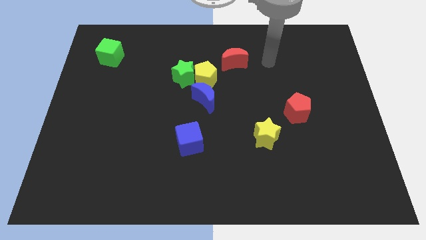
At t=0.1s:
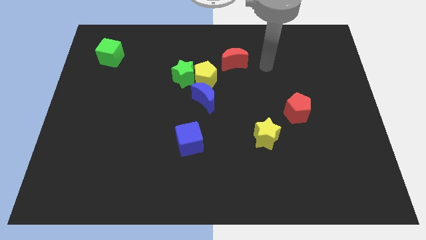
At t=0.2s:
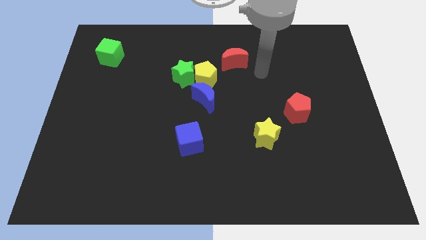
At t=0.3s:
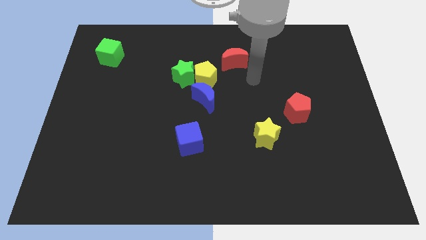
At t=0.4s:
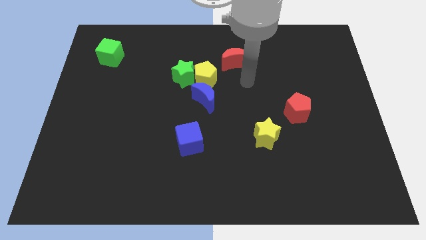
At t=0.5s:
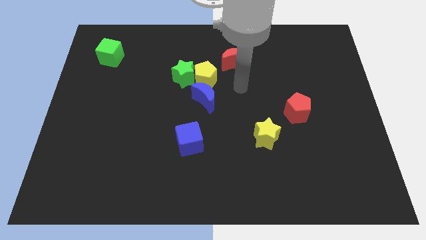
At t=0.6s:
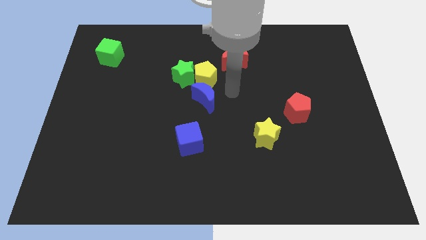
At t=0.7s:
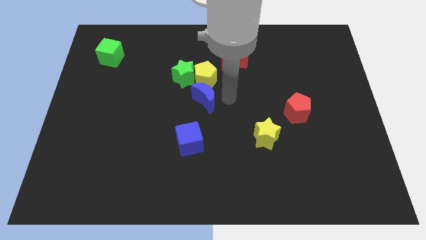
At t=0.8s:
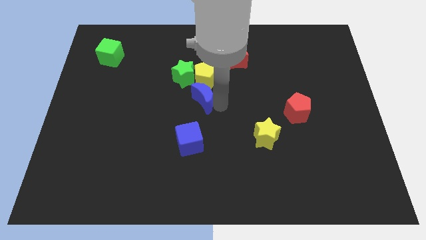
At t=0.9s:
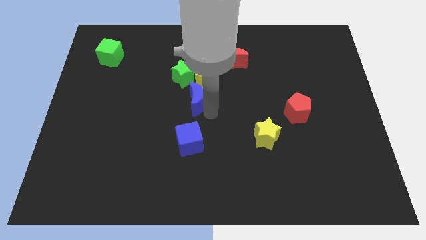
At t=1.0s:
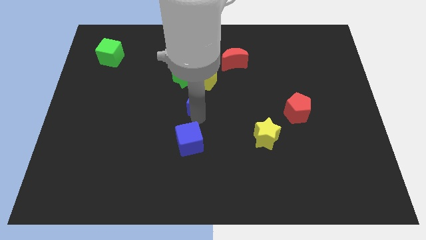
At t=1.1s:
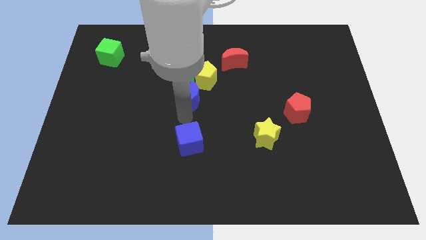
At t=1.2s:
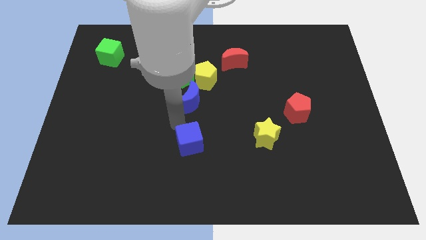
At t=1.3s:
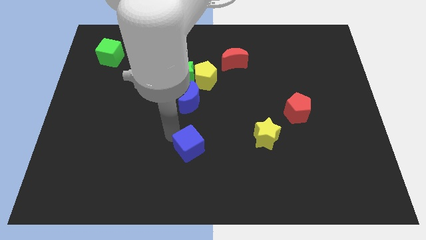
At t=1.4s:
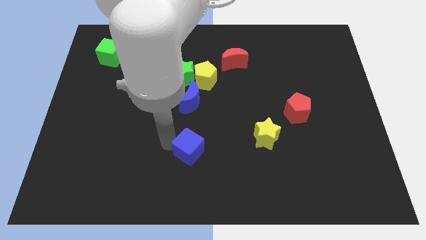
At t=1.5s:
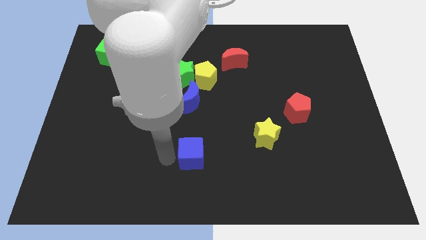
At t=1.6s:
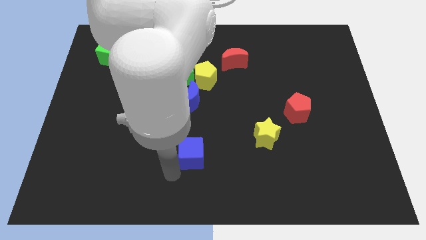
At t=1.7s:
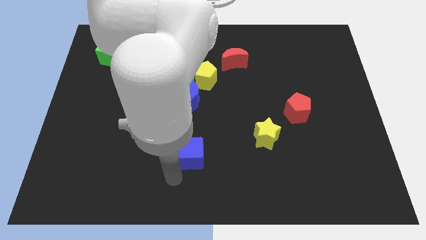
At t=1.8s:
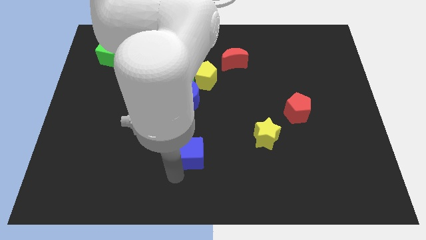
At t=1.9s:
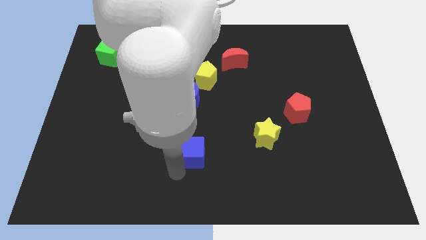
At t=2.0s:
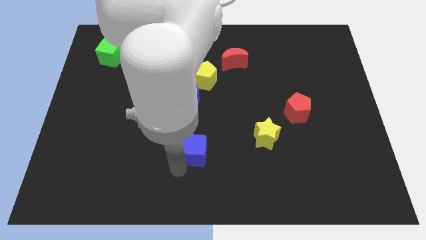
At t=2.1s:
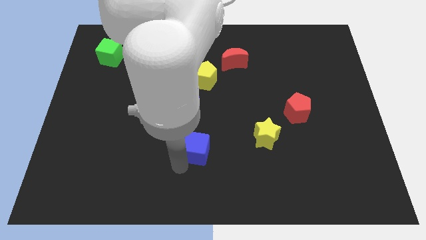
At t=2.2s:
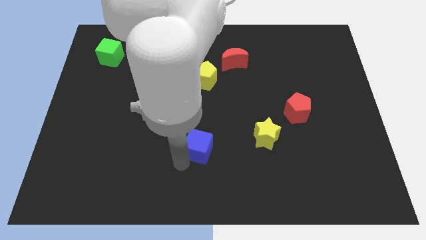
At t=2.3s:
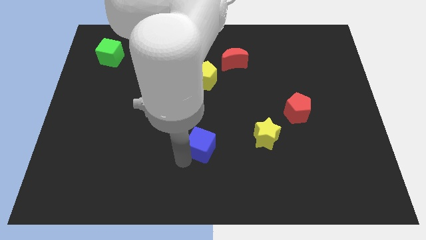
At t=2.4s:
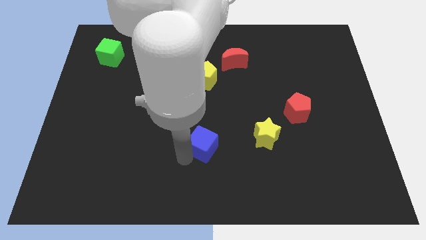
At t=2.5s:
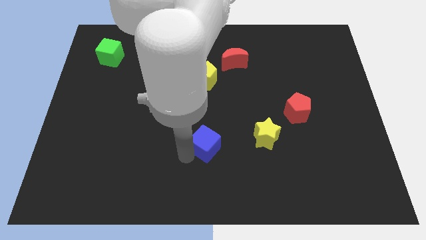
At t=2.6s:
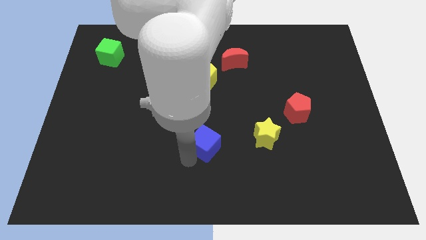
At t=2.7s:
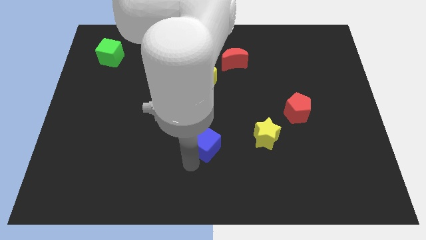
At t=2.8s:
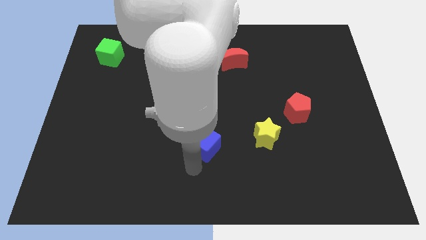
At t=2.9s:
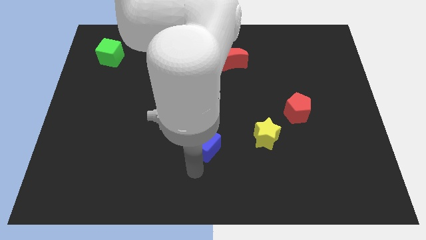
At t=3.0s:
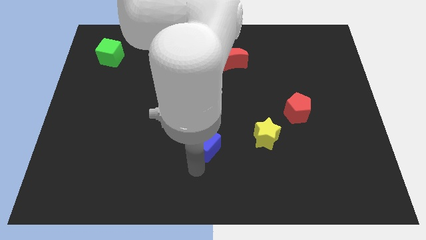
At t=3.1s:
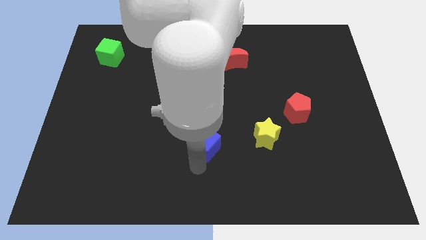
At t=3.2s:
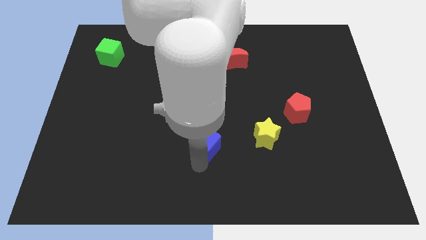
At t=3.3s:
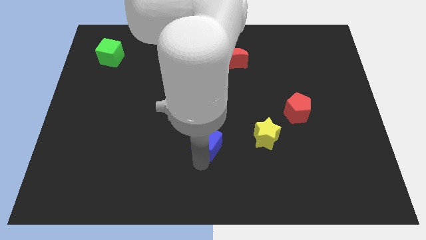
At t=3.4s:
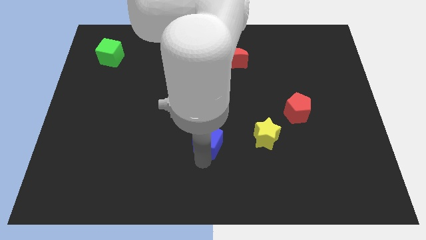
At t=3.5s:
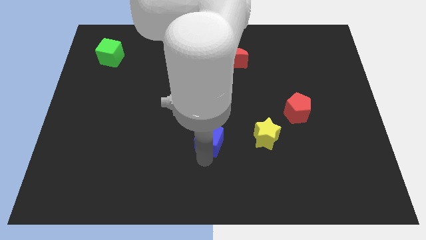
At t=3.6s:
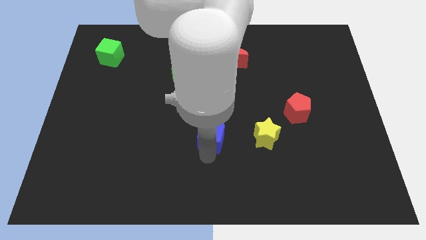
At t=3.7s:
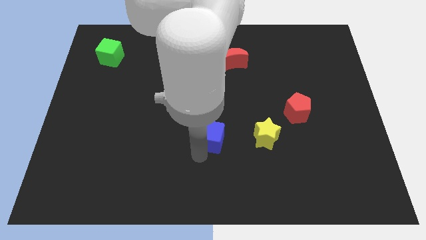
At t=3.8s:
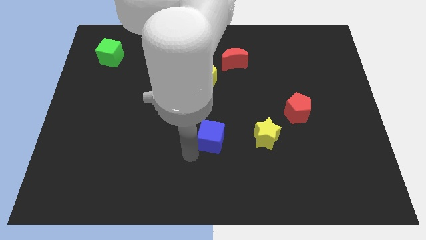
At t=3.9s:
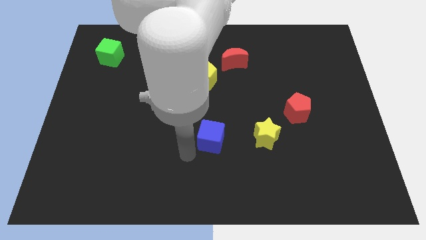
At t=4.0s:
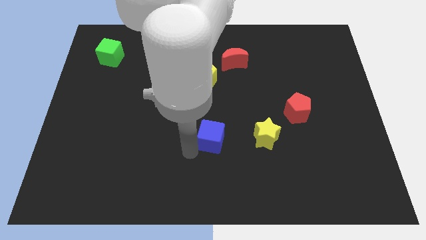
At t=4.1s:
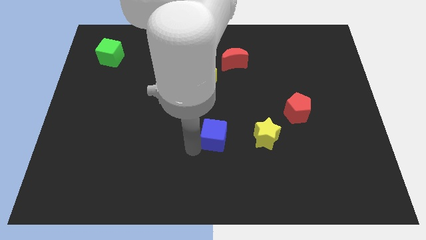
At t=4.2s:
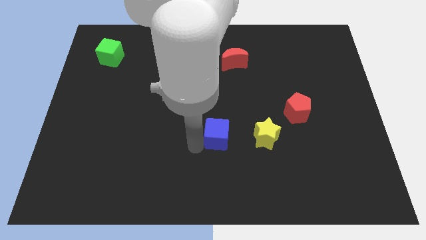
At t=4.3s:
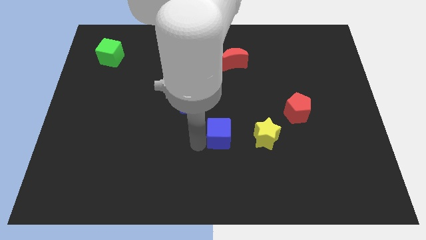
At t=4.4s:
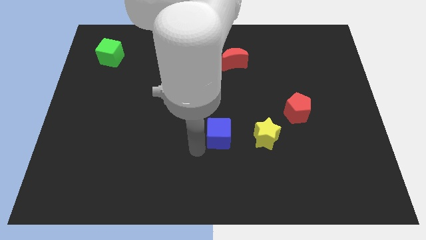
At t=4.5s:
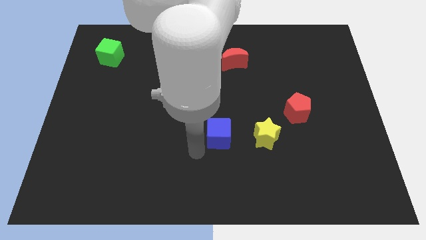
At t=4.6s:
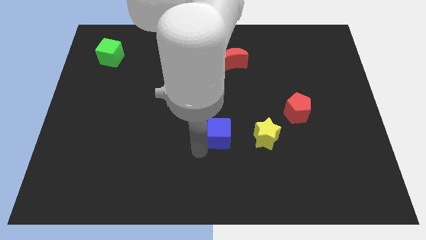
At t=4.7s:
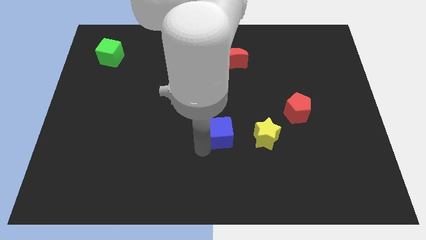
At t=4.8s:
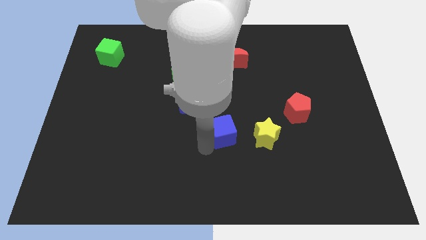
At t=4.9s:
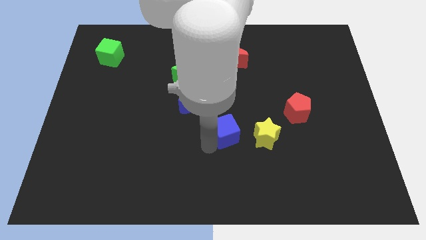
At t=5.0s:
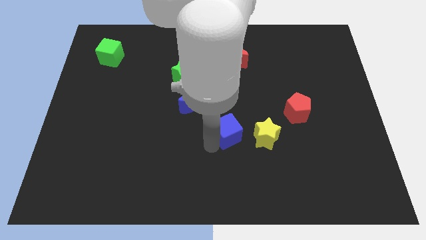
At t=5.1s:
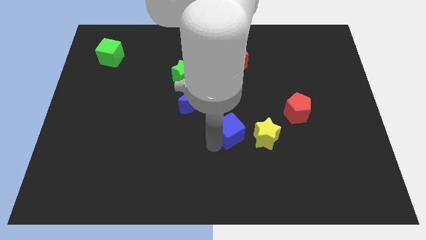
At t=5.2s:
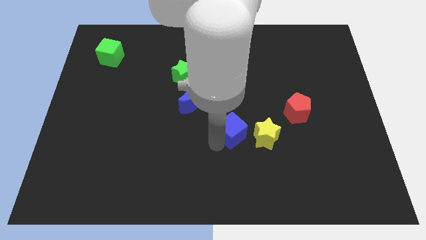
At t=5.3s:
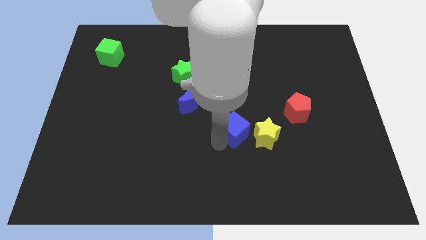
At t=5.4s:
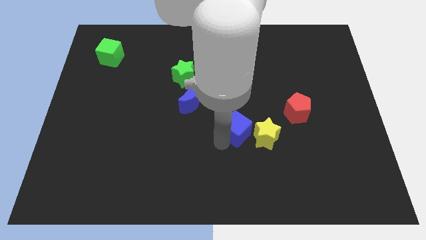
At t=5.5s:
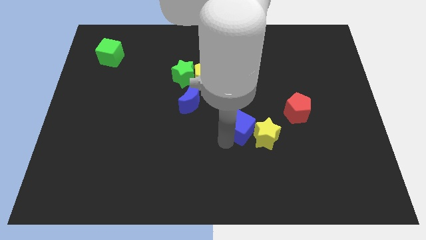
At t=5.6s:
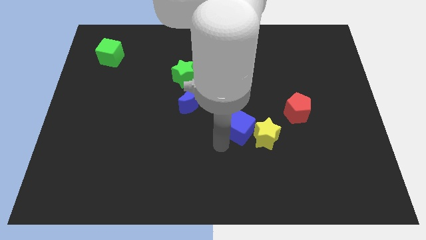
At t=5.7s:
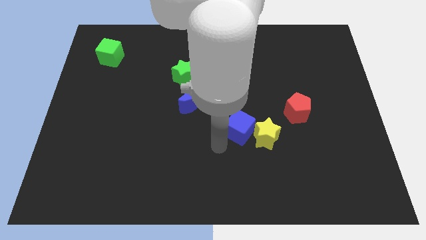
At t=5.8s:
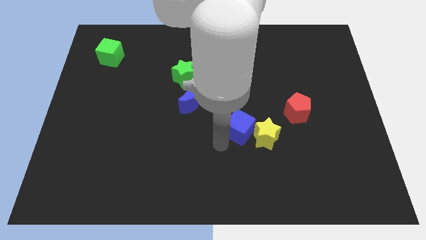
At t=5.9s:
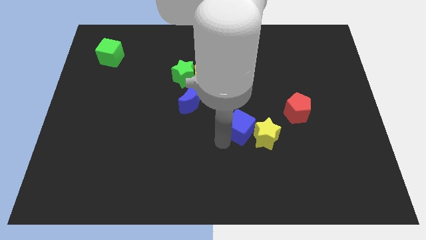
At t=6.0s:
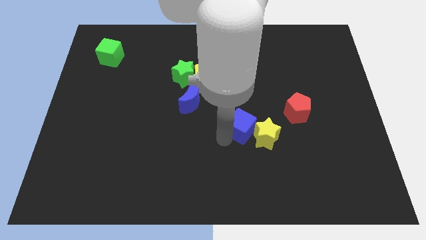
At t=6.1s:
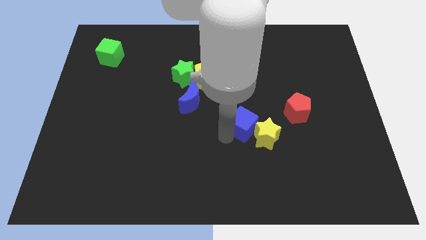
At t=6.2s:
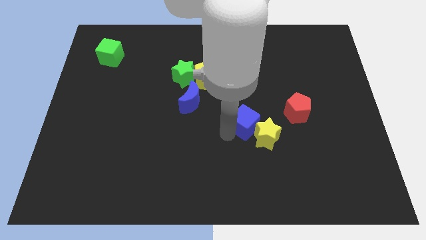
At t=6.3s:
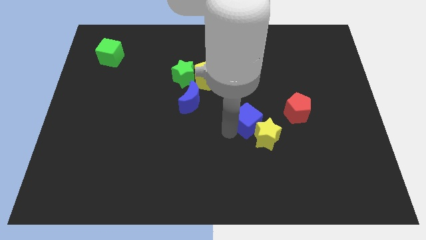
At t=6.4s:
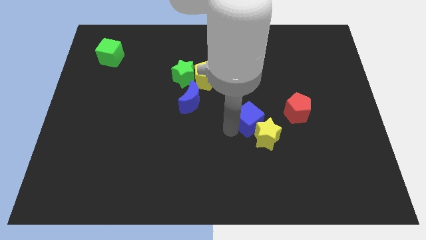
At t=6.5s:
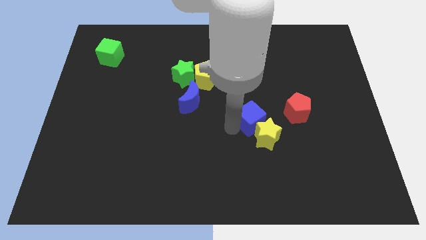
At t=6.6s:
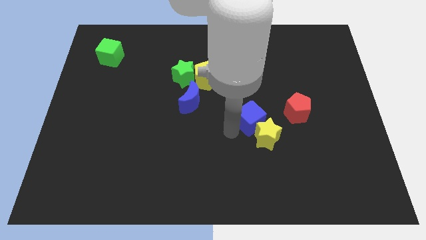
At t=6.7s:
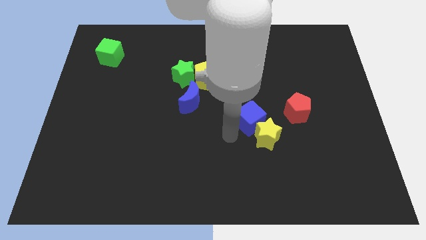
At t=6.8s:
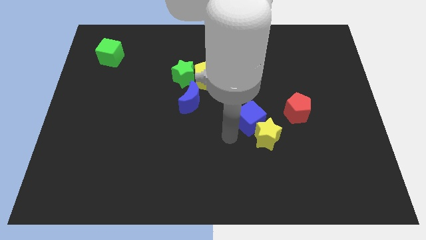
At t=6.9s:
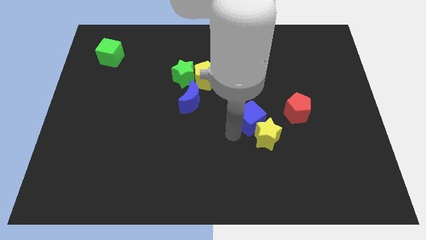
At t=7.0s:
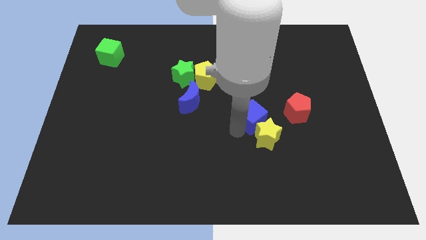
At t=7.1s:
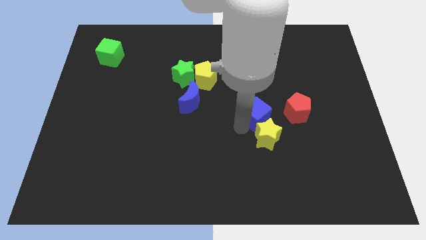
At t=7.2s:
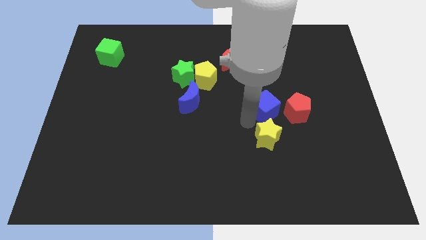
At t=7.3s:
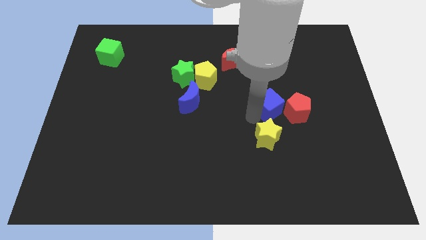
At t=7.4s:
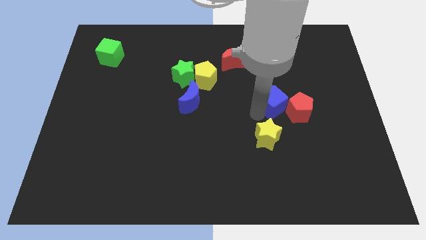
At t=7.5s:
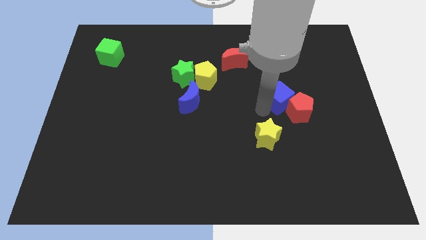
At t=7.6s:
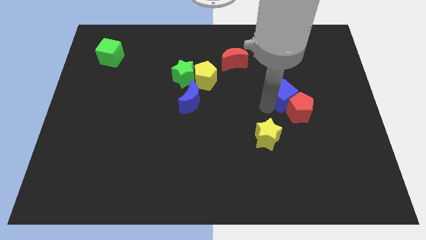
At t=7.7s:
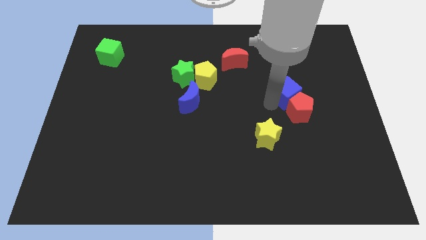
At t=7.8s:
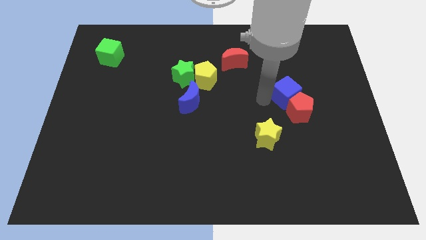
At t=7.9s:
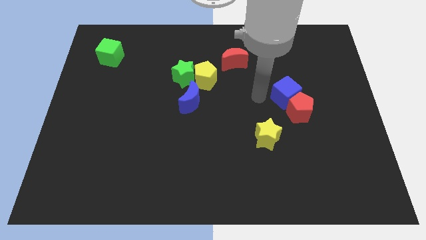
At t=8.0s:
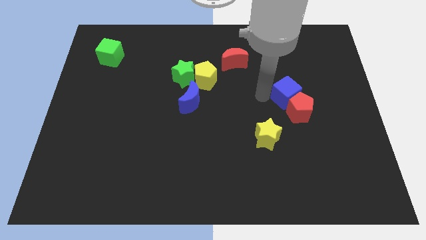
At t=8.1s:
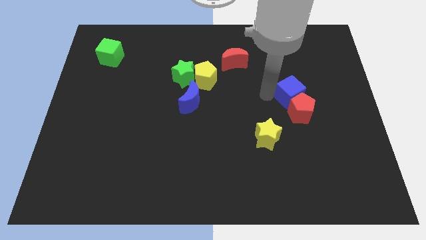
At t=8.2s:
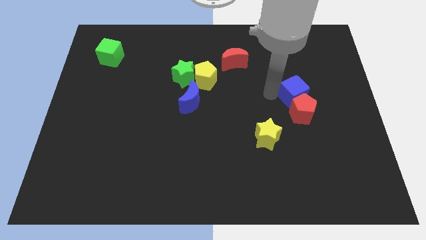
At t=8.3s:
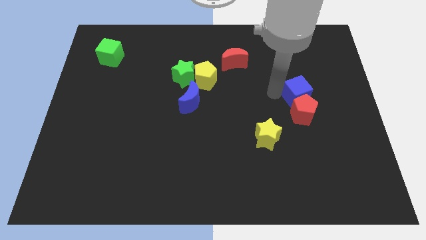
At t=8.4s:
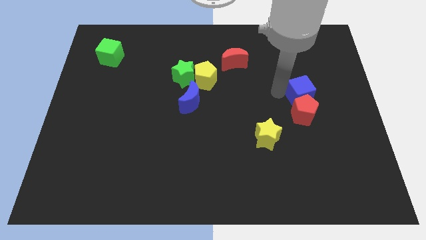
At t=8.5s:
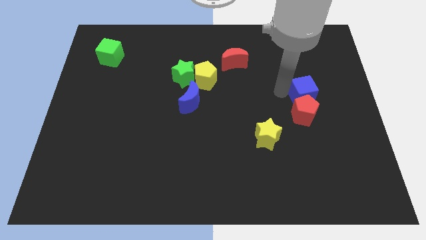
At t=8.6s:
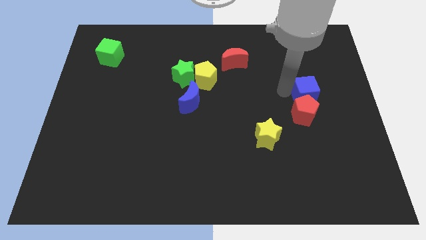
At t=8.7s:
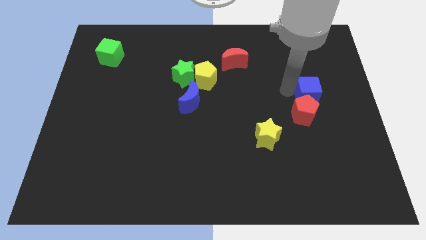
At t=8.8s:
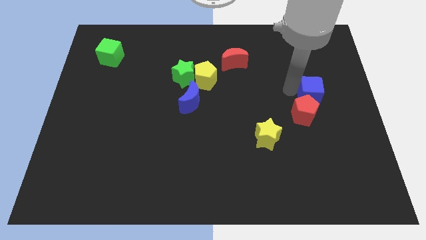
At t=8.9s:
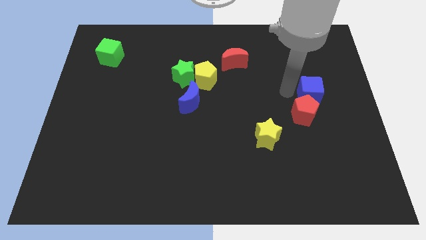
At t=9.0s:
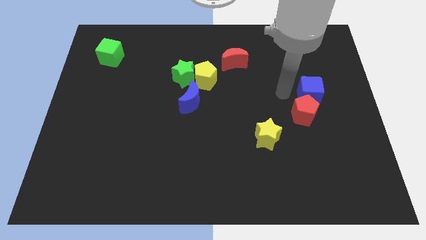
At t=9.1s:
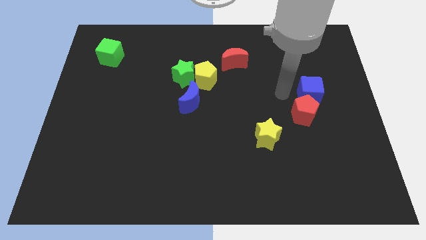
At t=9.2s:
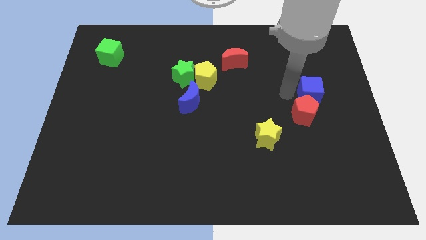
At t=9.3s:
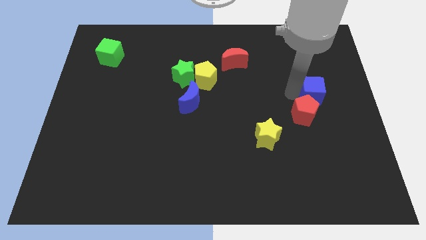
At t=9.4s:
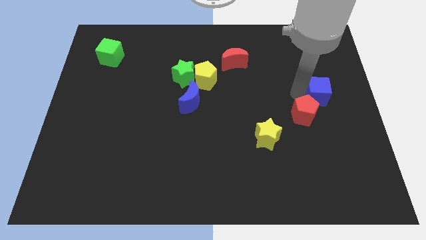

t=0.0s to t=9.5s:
slide the blue cube to the right side of the board
